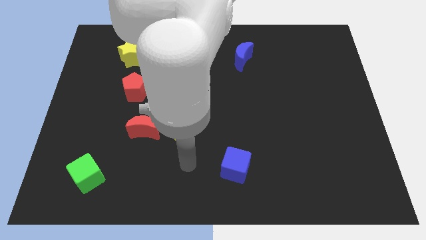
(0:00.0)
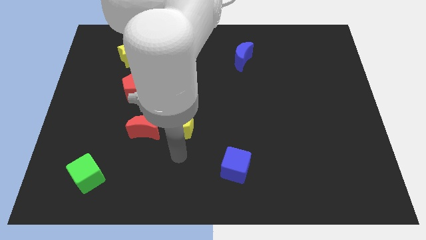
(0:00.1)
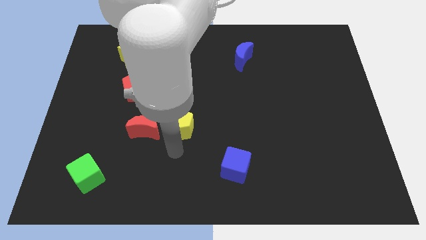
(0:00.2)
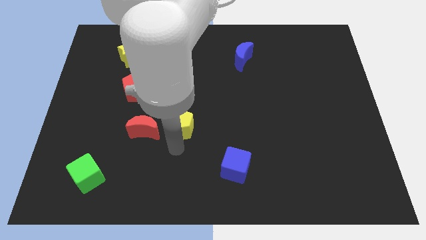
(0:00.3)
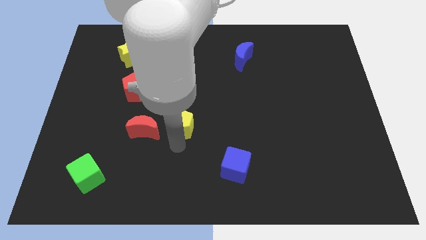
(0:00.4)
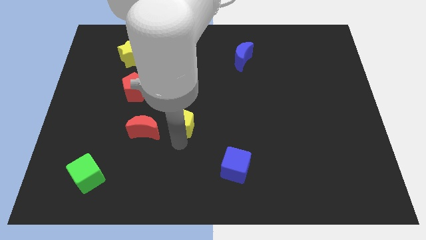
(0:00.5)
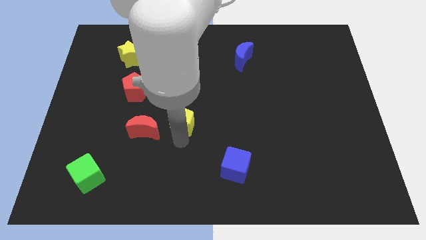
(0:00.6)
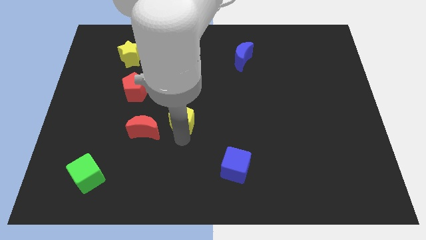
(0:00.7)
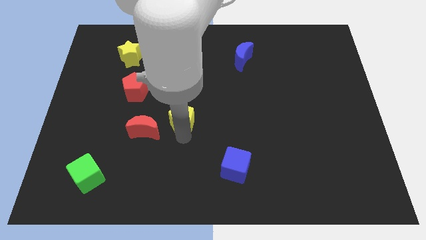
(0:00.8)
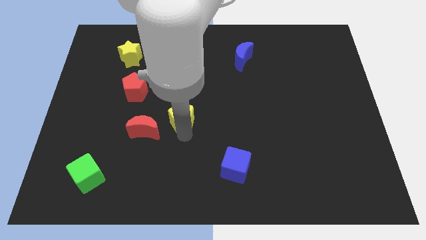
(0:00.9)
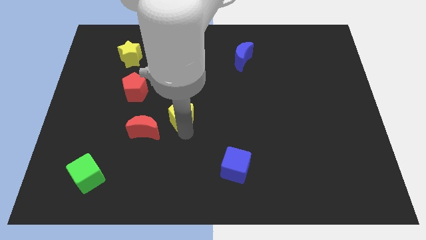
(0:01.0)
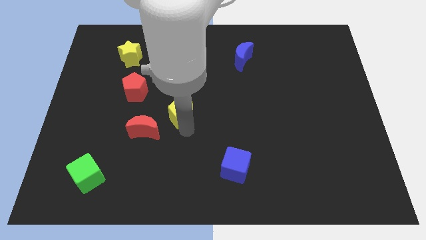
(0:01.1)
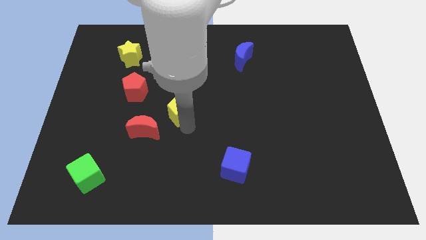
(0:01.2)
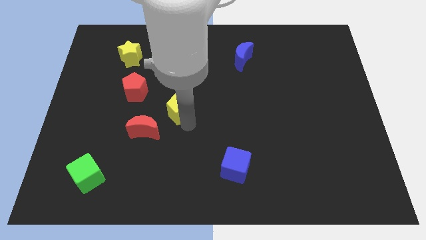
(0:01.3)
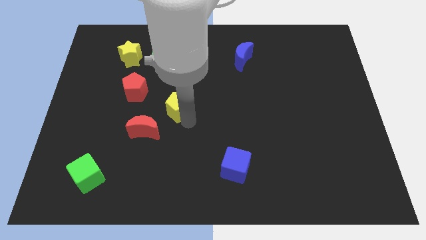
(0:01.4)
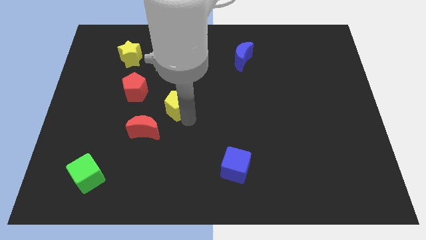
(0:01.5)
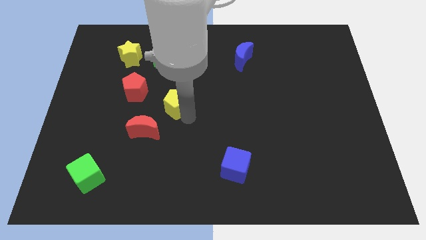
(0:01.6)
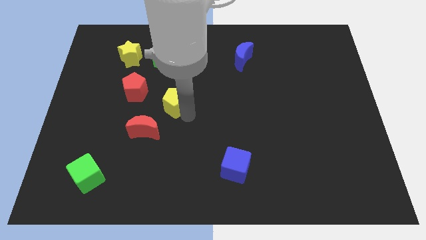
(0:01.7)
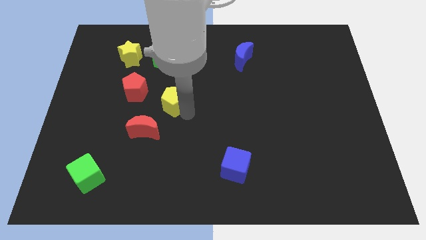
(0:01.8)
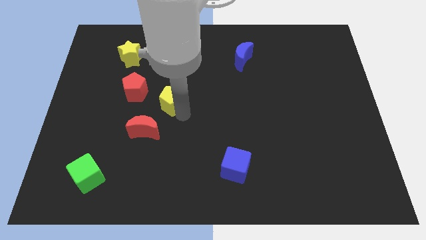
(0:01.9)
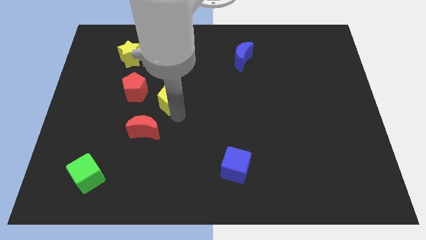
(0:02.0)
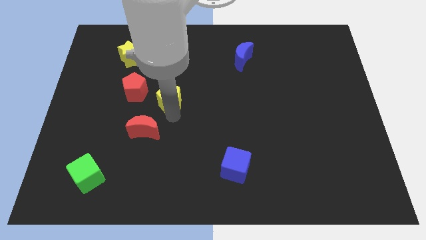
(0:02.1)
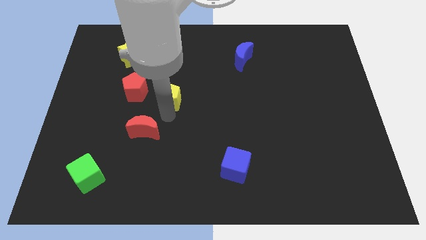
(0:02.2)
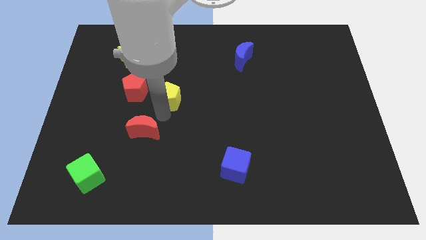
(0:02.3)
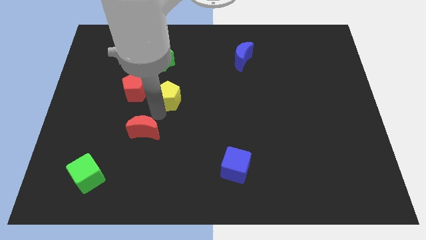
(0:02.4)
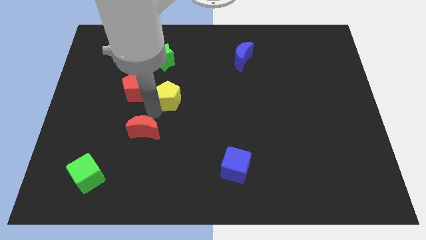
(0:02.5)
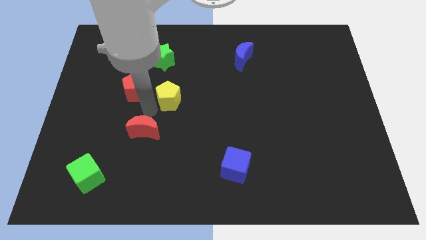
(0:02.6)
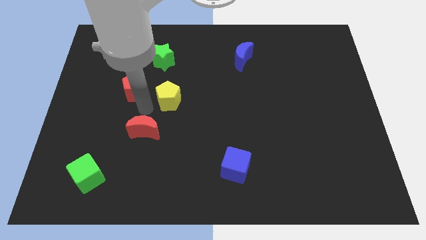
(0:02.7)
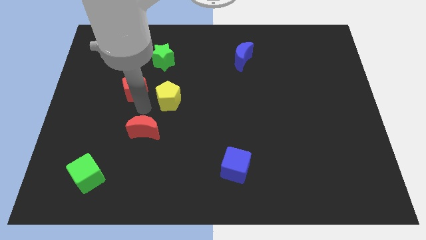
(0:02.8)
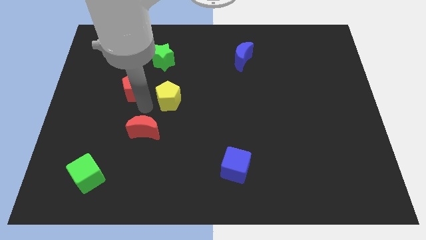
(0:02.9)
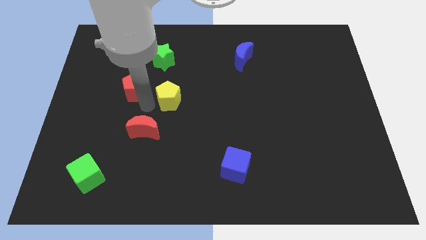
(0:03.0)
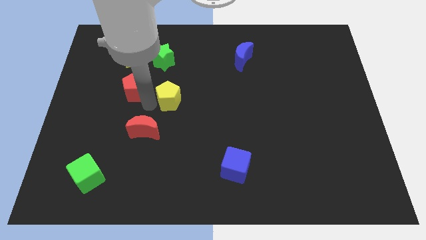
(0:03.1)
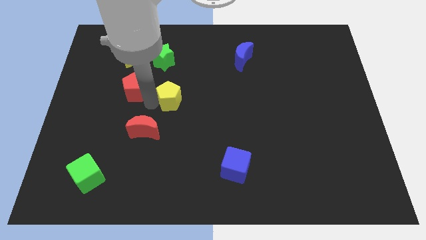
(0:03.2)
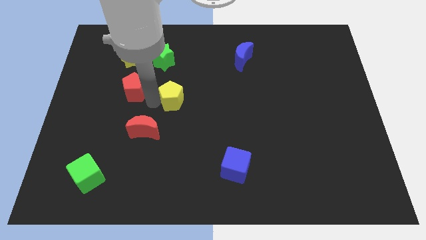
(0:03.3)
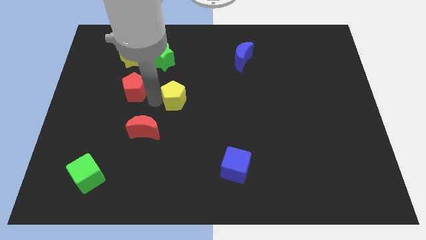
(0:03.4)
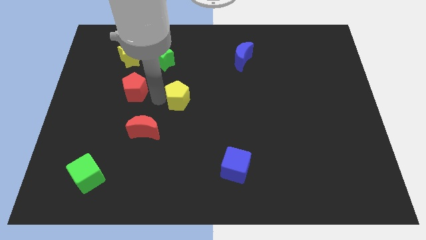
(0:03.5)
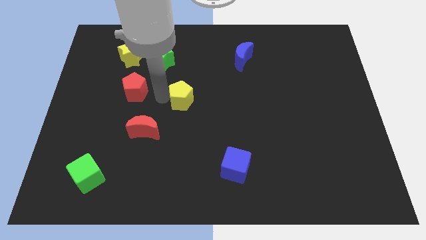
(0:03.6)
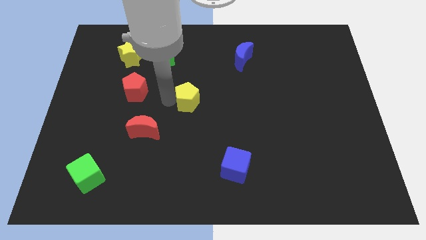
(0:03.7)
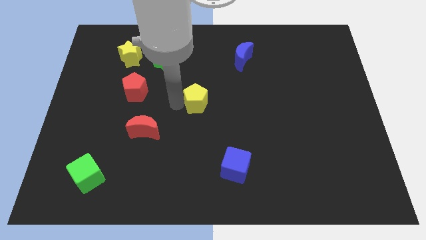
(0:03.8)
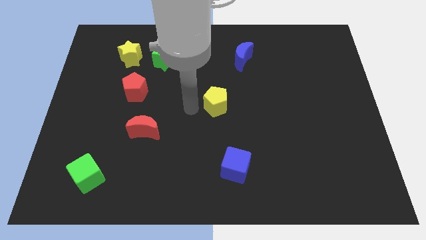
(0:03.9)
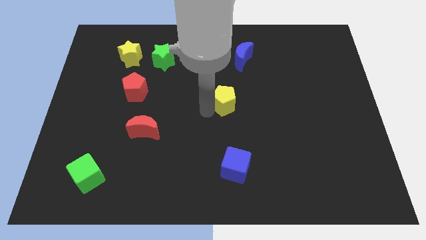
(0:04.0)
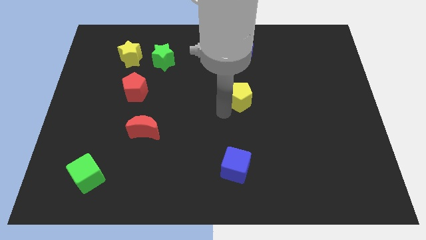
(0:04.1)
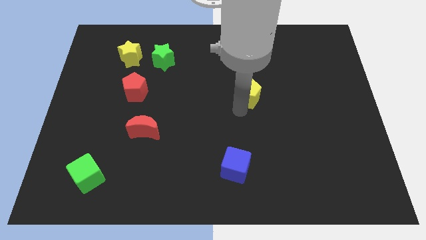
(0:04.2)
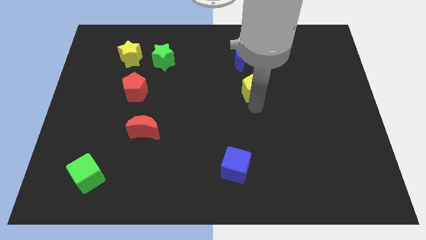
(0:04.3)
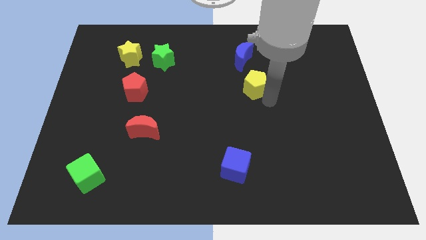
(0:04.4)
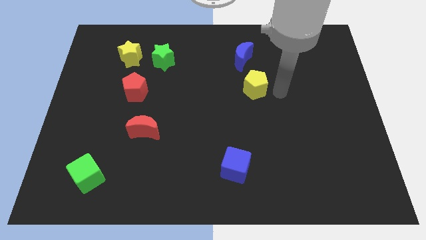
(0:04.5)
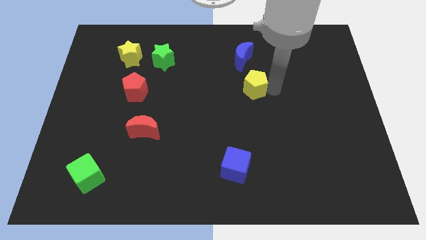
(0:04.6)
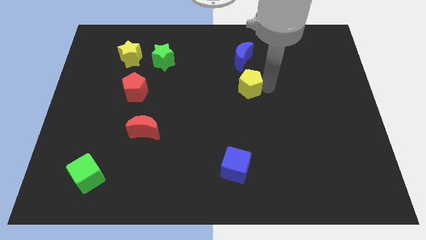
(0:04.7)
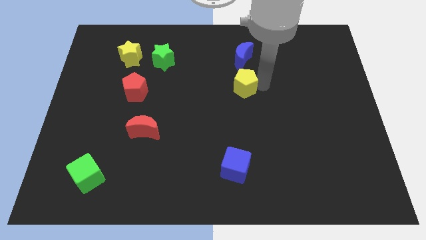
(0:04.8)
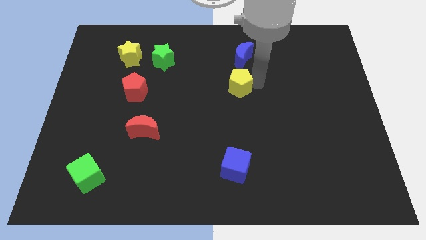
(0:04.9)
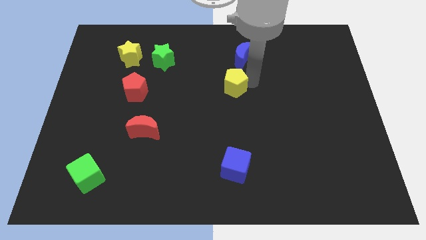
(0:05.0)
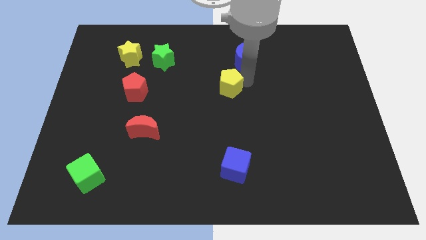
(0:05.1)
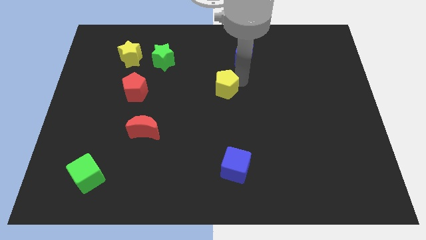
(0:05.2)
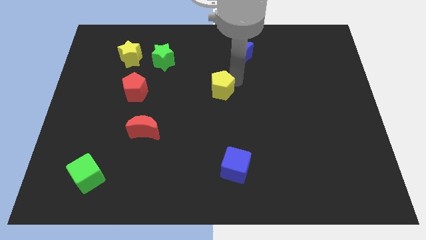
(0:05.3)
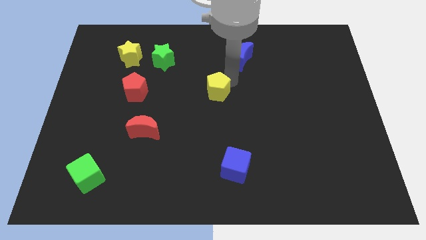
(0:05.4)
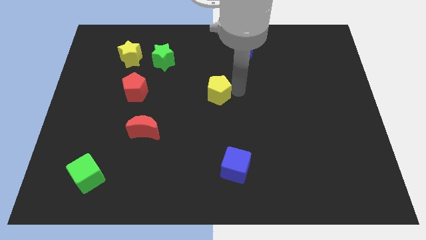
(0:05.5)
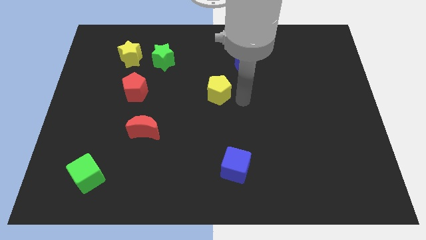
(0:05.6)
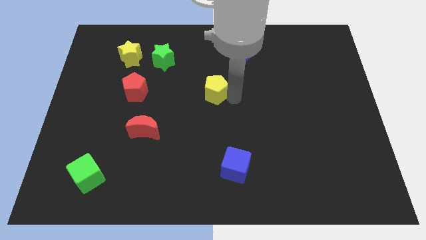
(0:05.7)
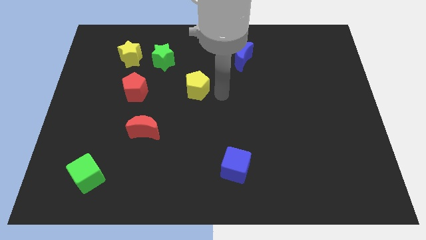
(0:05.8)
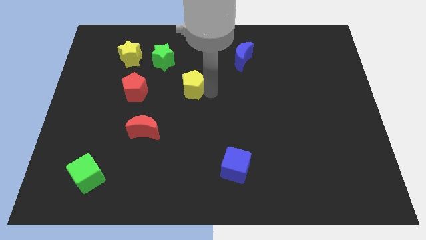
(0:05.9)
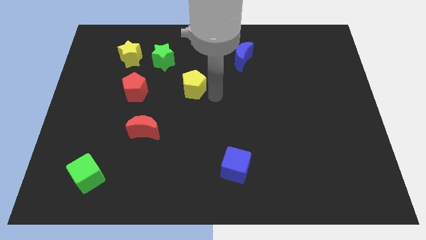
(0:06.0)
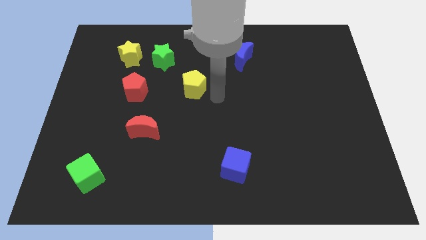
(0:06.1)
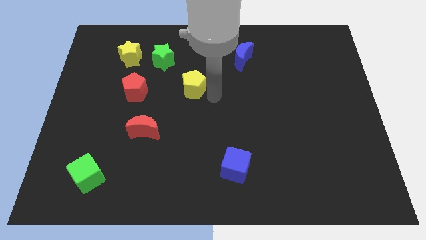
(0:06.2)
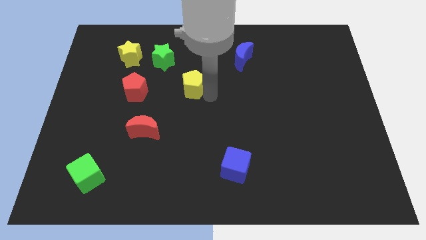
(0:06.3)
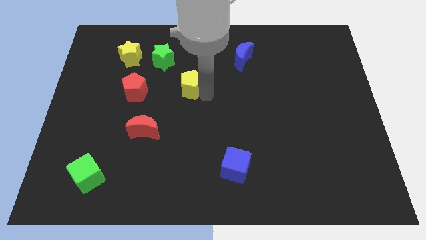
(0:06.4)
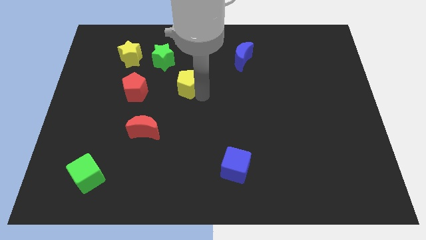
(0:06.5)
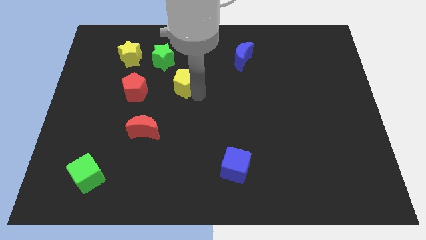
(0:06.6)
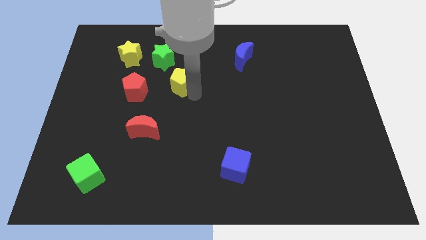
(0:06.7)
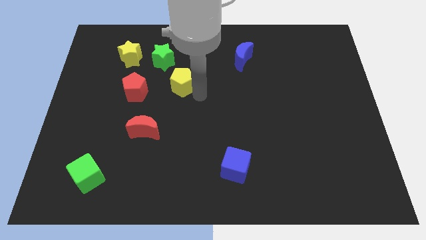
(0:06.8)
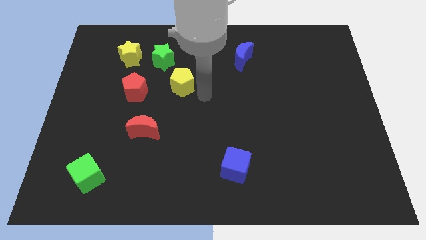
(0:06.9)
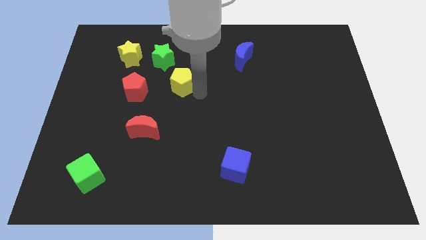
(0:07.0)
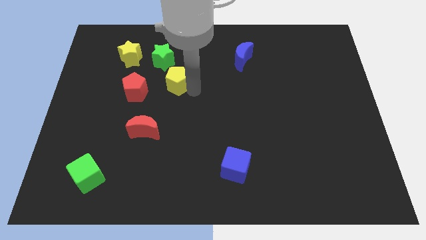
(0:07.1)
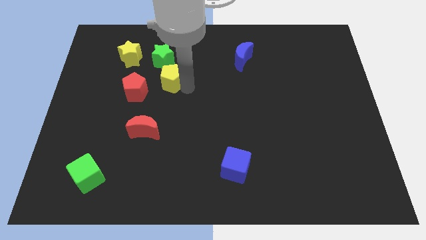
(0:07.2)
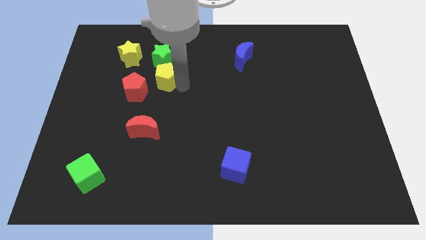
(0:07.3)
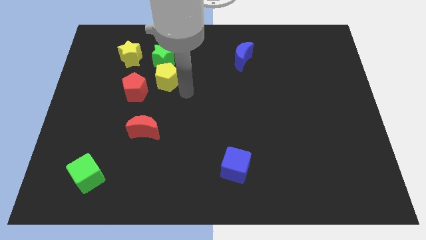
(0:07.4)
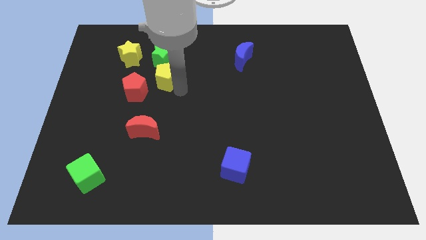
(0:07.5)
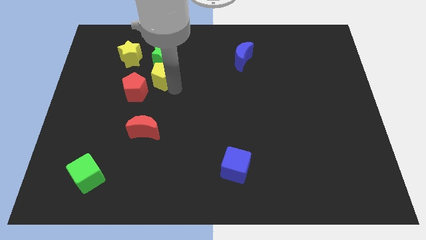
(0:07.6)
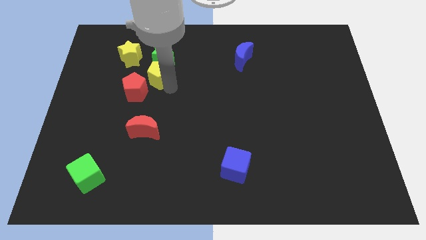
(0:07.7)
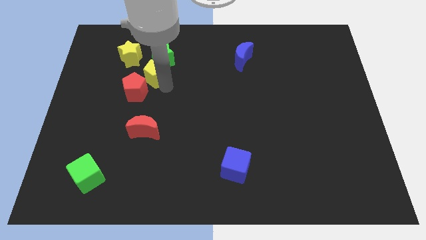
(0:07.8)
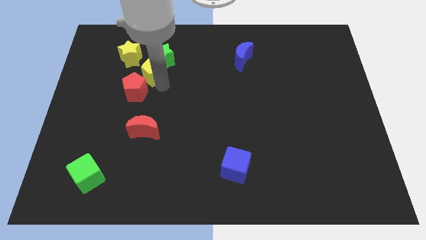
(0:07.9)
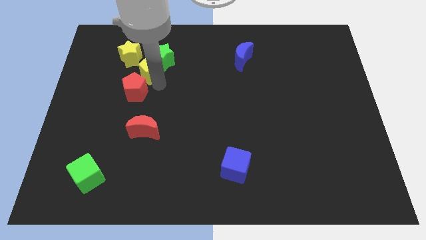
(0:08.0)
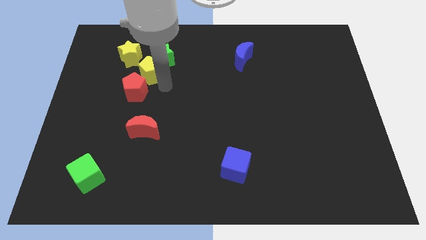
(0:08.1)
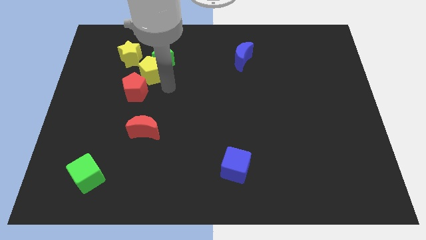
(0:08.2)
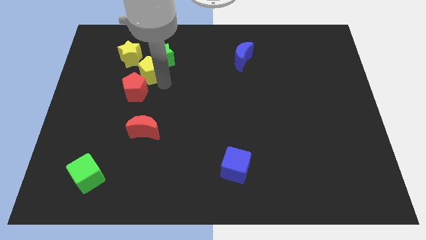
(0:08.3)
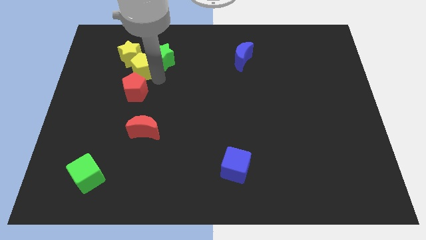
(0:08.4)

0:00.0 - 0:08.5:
push the yellow pentagon to the yellow star
